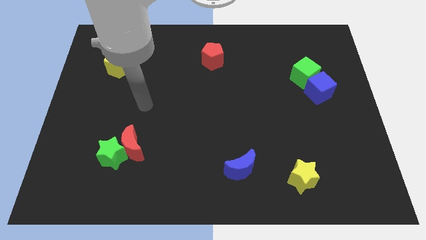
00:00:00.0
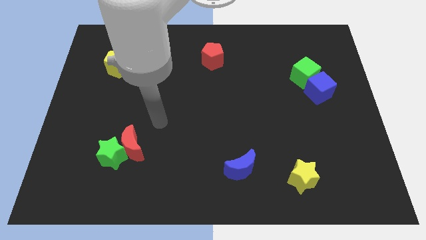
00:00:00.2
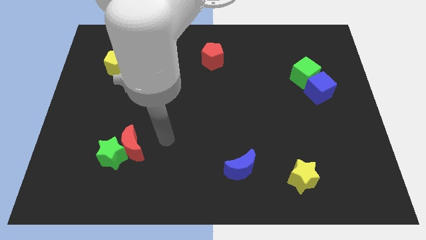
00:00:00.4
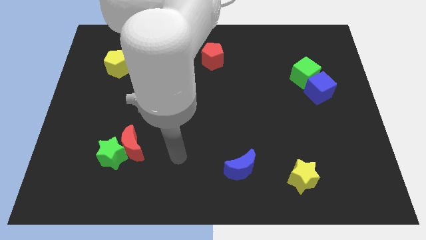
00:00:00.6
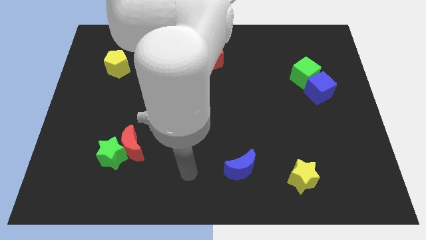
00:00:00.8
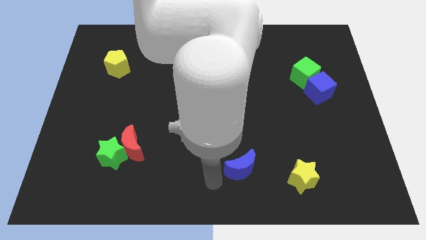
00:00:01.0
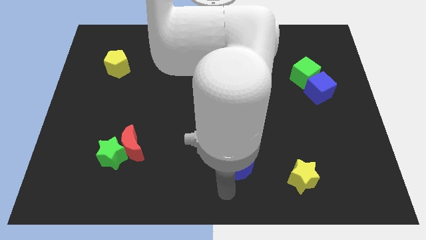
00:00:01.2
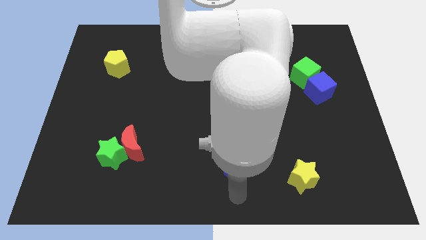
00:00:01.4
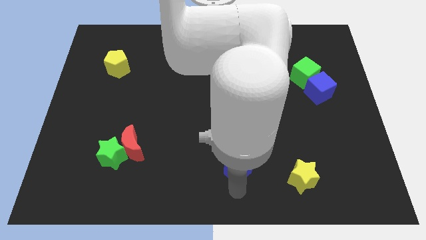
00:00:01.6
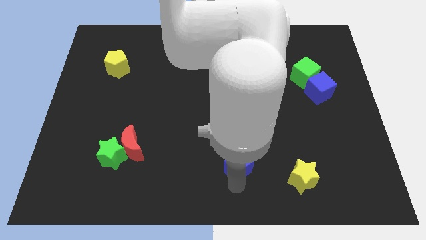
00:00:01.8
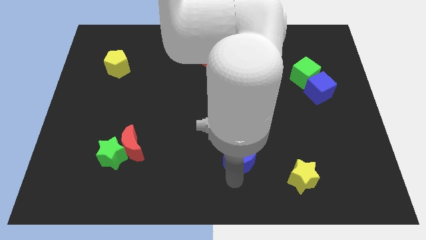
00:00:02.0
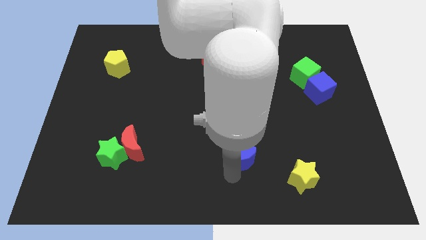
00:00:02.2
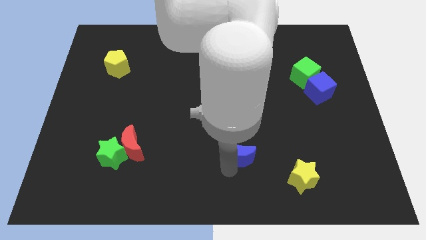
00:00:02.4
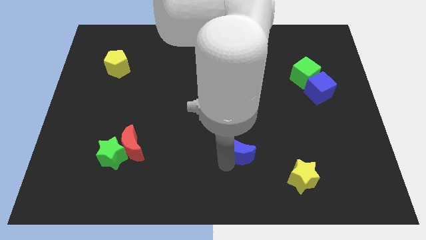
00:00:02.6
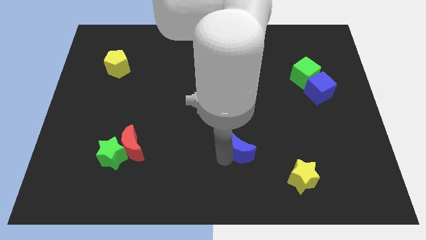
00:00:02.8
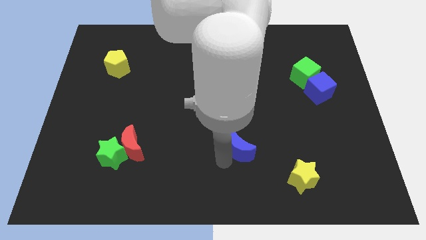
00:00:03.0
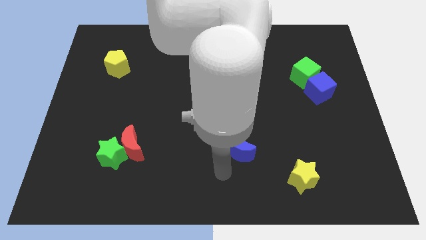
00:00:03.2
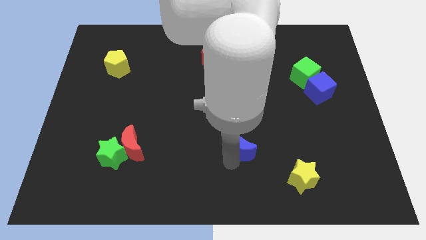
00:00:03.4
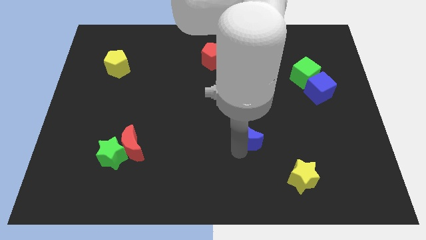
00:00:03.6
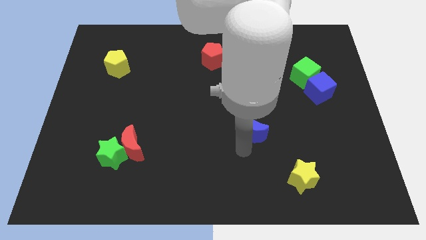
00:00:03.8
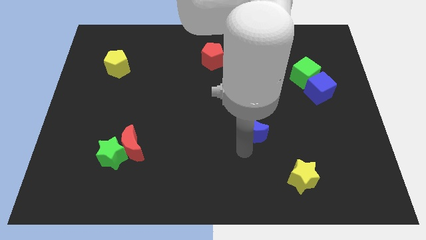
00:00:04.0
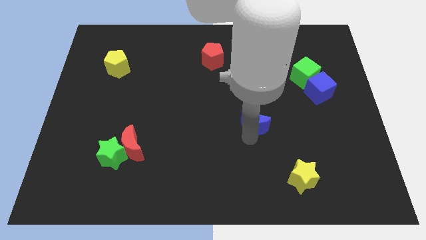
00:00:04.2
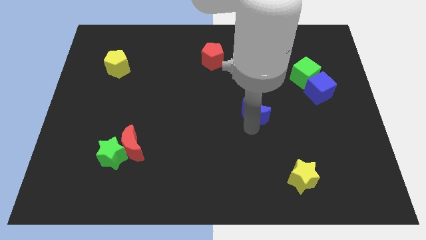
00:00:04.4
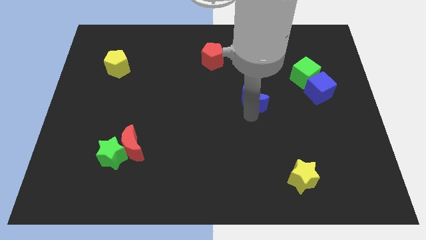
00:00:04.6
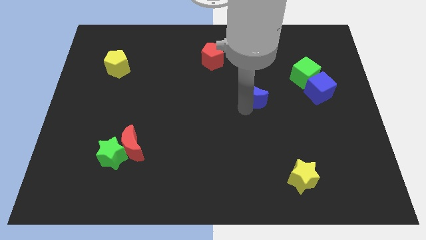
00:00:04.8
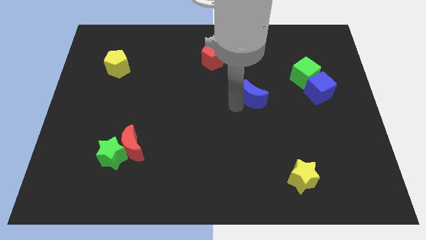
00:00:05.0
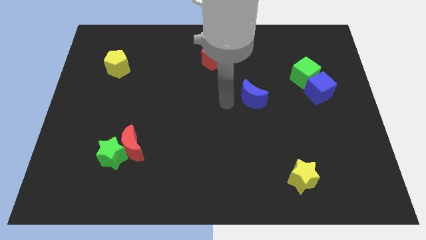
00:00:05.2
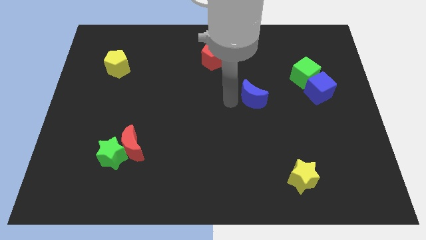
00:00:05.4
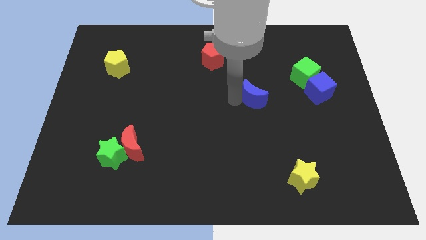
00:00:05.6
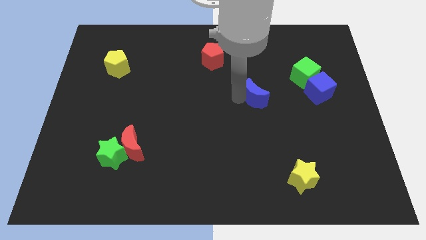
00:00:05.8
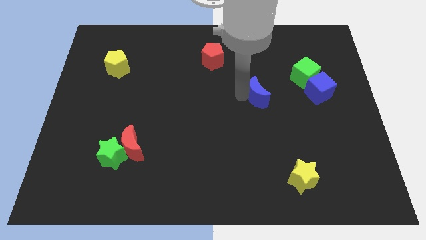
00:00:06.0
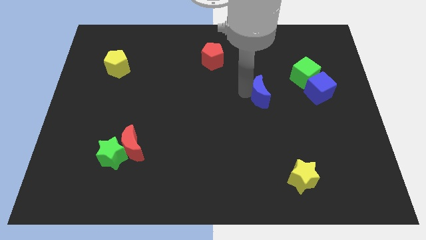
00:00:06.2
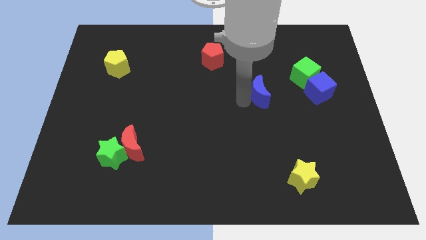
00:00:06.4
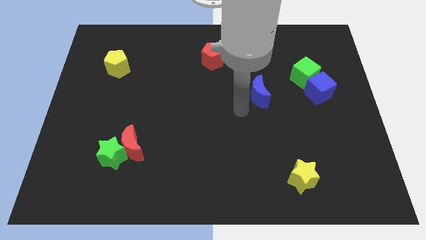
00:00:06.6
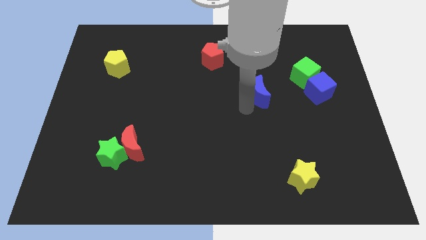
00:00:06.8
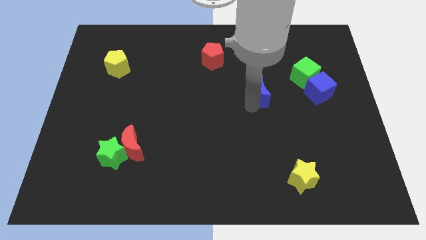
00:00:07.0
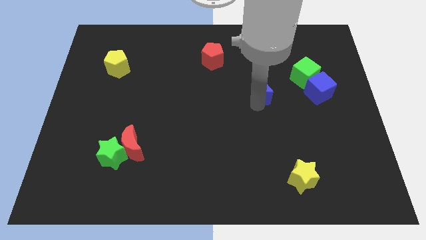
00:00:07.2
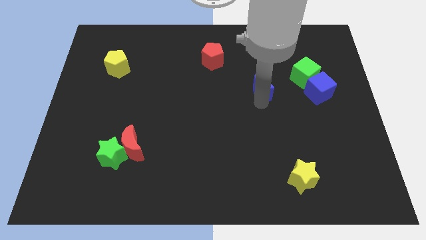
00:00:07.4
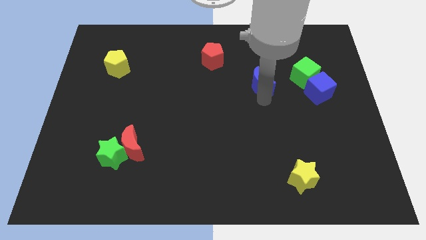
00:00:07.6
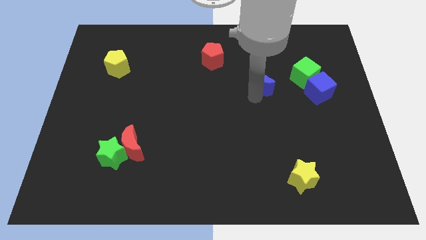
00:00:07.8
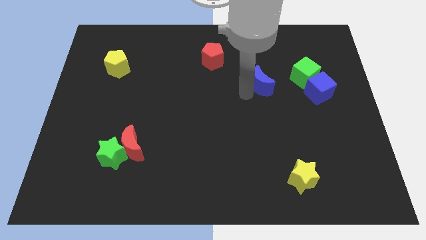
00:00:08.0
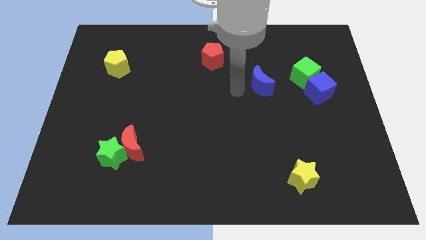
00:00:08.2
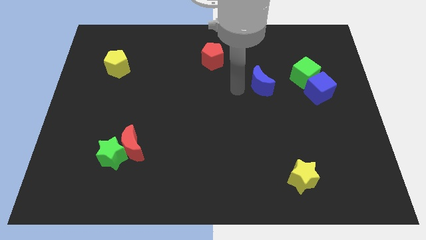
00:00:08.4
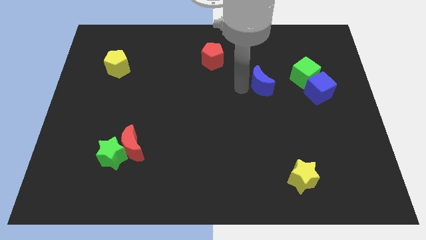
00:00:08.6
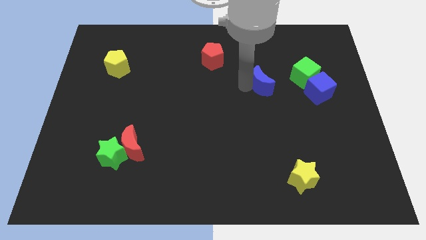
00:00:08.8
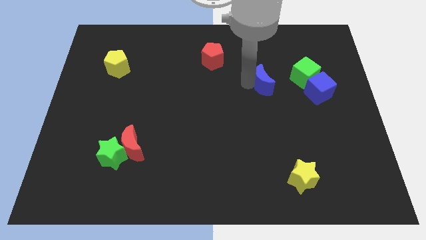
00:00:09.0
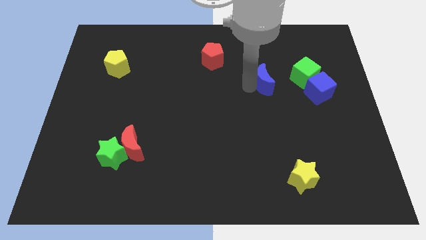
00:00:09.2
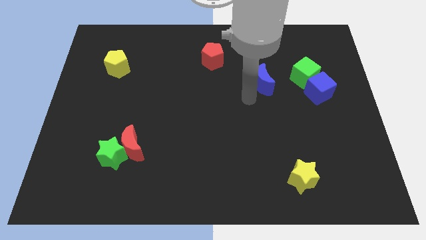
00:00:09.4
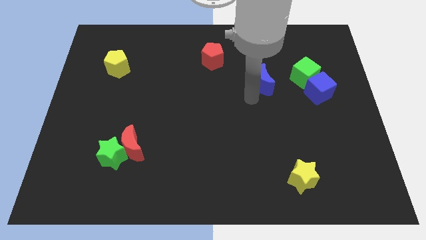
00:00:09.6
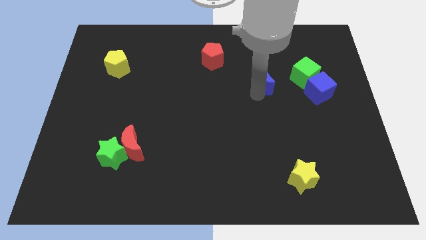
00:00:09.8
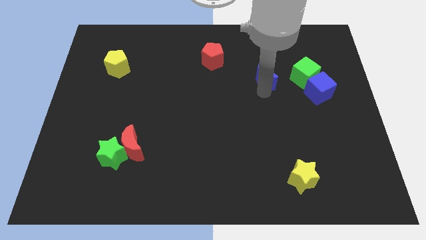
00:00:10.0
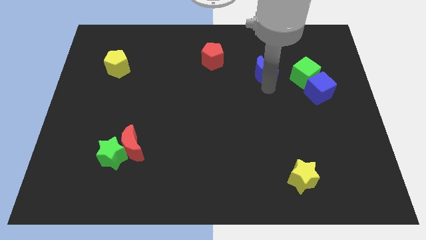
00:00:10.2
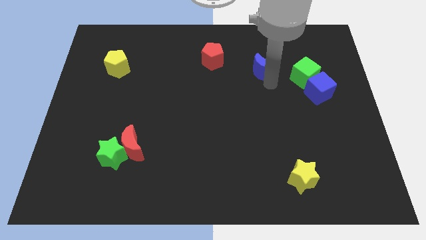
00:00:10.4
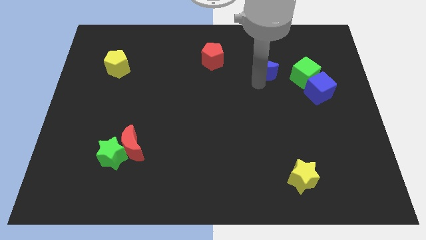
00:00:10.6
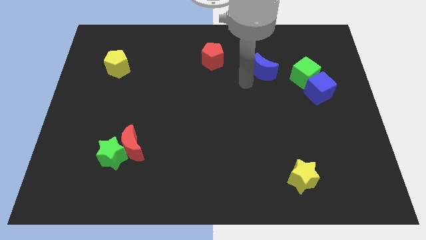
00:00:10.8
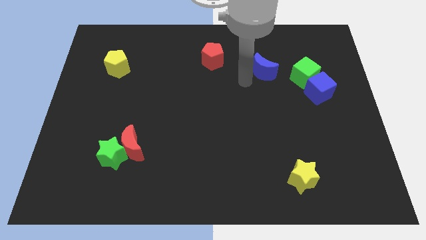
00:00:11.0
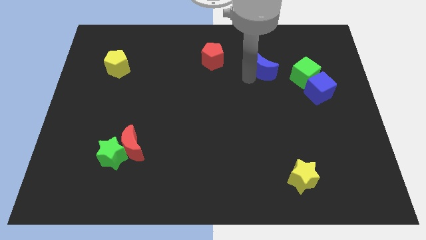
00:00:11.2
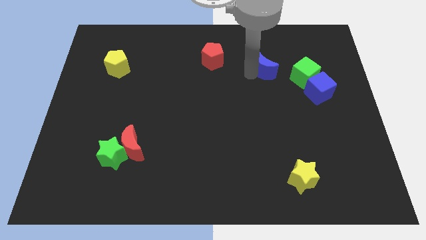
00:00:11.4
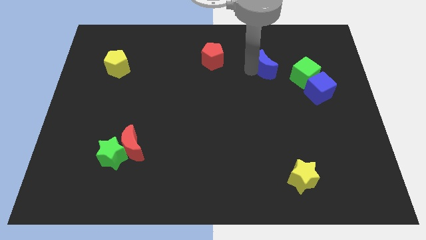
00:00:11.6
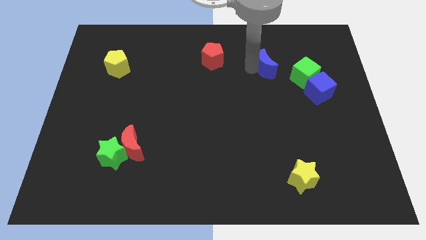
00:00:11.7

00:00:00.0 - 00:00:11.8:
push the blue moon to the top left side of the green cube

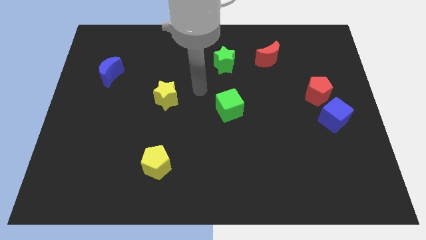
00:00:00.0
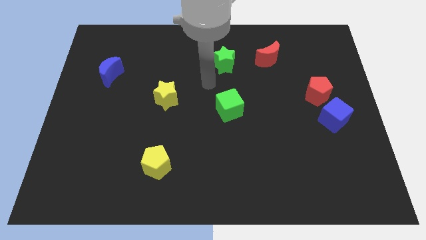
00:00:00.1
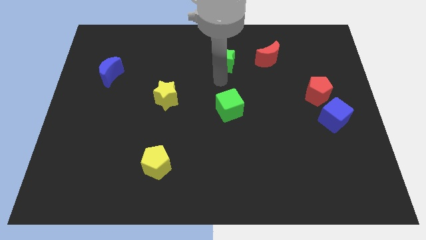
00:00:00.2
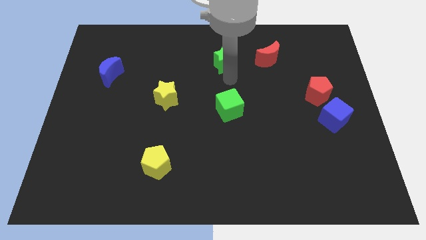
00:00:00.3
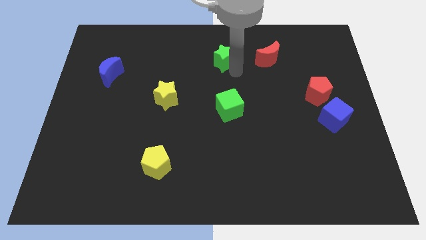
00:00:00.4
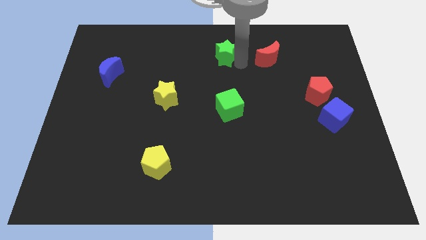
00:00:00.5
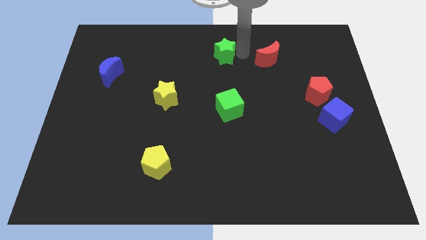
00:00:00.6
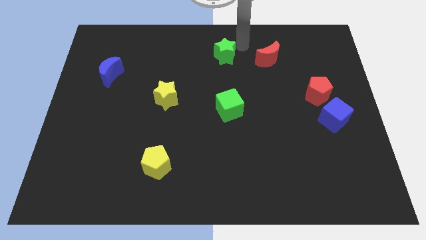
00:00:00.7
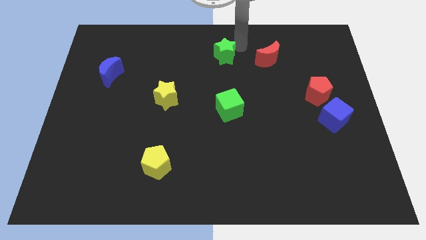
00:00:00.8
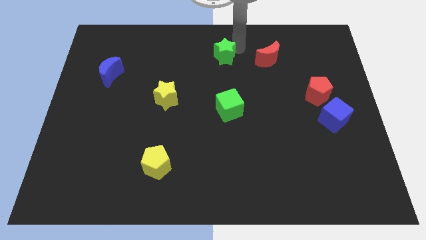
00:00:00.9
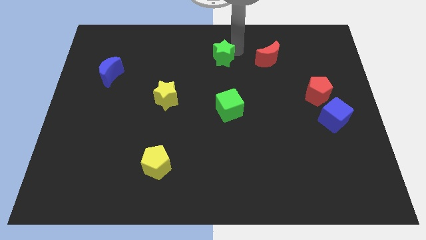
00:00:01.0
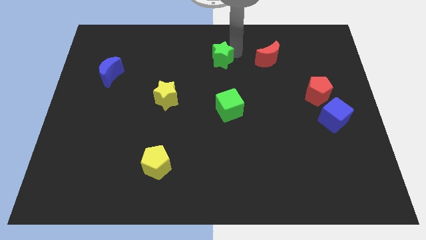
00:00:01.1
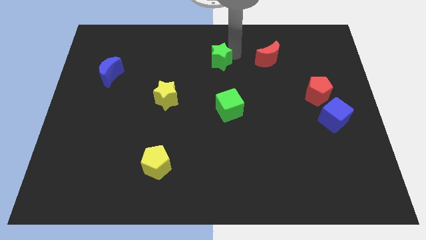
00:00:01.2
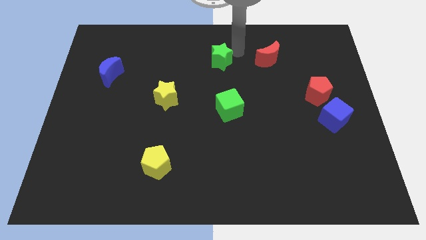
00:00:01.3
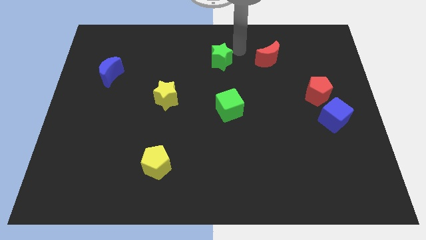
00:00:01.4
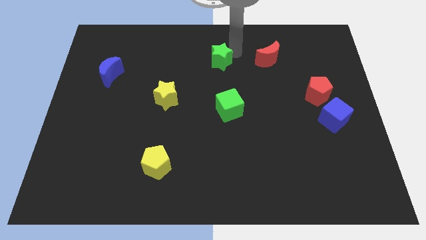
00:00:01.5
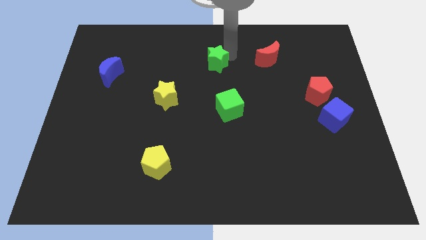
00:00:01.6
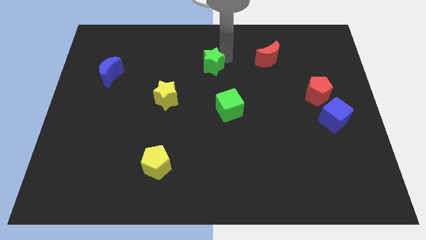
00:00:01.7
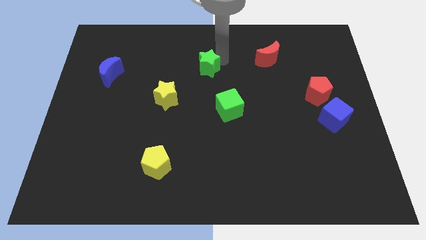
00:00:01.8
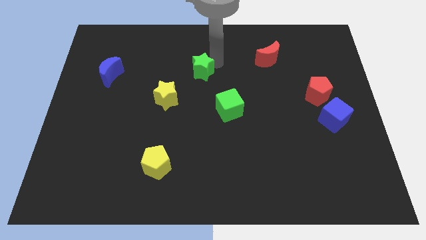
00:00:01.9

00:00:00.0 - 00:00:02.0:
put the green star diagonally up and to the right of the yellow star
